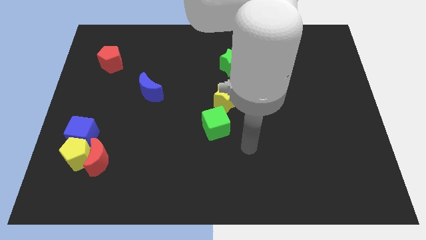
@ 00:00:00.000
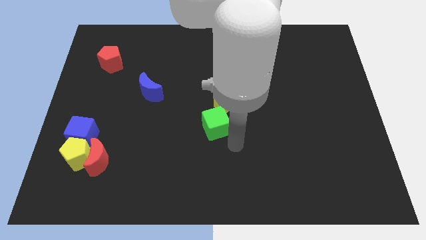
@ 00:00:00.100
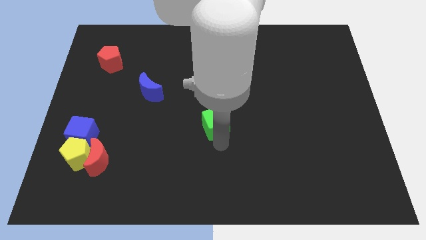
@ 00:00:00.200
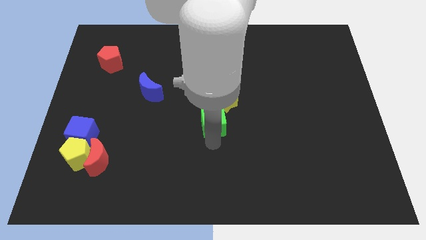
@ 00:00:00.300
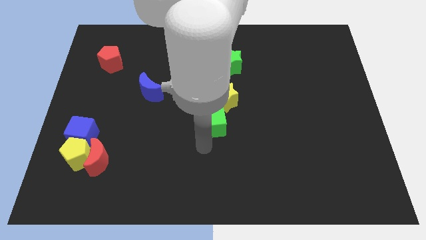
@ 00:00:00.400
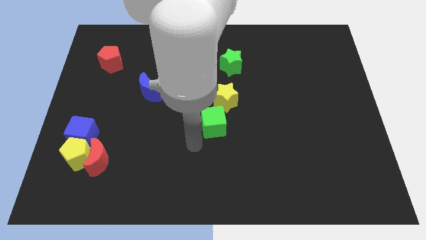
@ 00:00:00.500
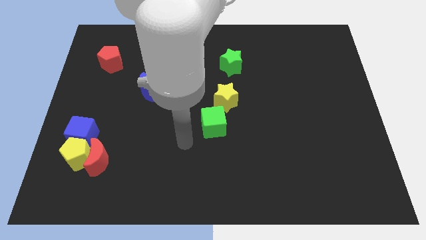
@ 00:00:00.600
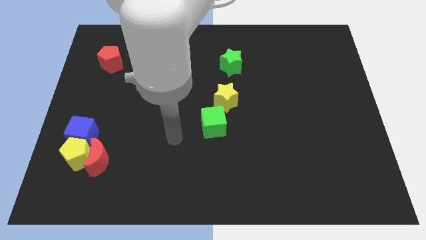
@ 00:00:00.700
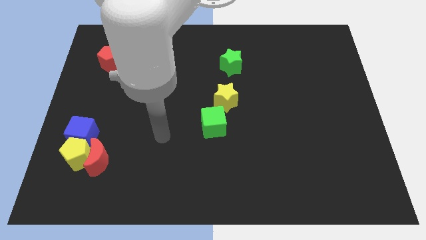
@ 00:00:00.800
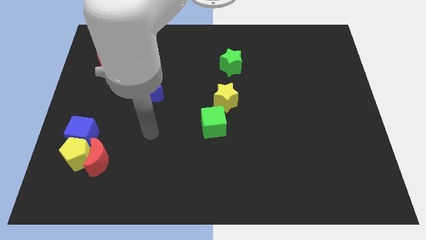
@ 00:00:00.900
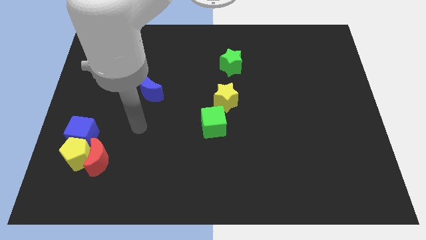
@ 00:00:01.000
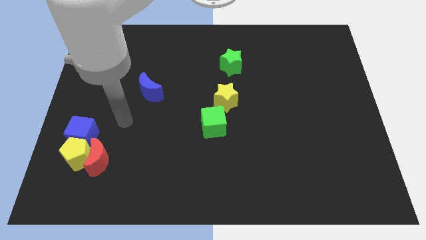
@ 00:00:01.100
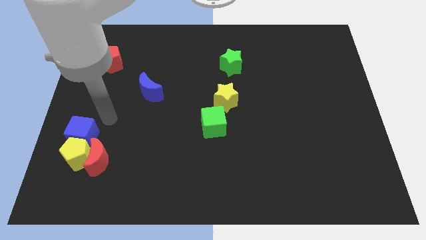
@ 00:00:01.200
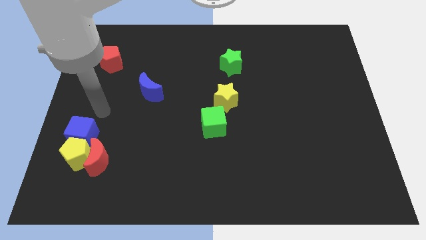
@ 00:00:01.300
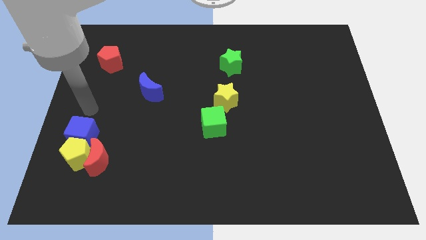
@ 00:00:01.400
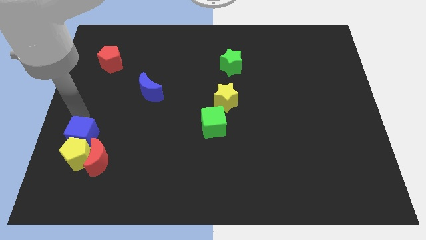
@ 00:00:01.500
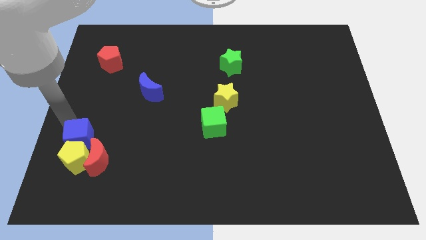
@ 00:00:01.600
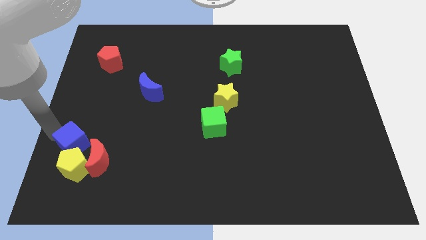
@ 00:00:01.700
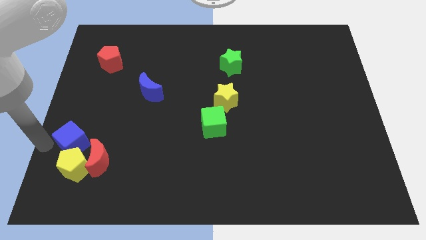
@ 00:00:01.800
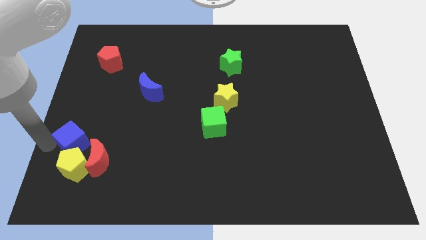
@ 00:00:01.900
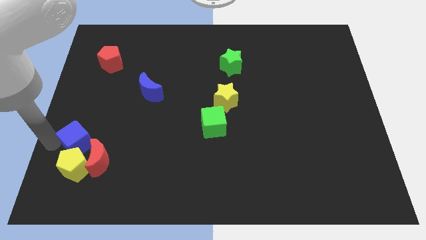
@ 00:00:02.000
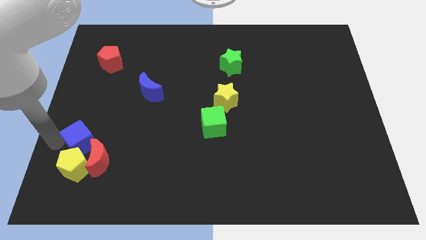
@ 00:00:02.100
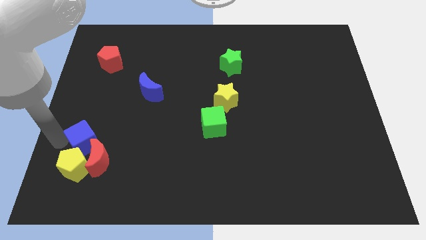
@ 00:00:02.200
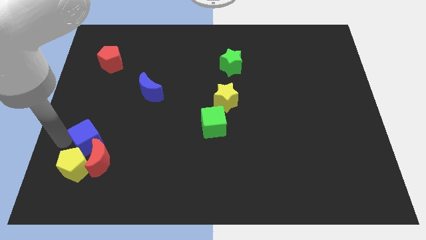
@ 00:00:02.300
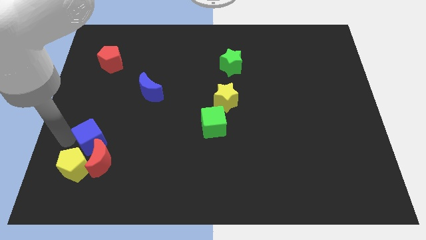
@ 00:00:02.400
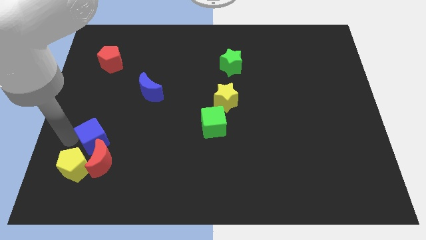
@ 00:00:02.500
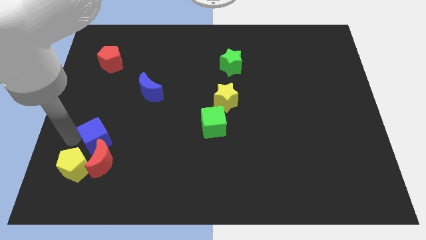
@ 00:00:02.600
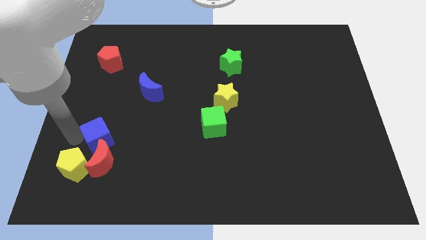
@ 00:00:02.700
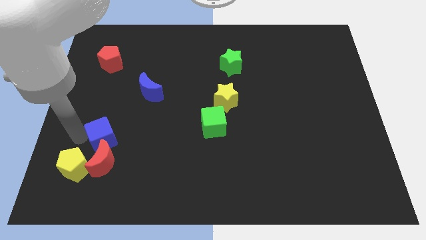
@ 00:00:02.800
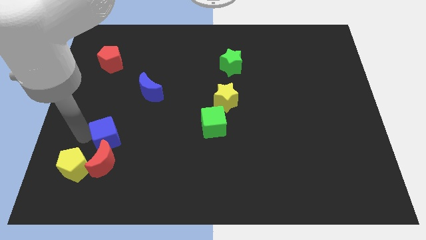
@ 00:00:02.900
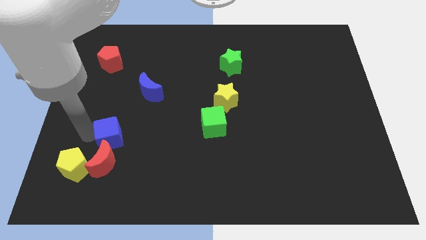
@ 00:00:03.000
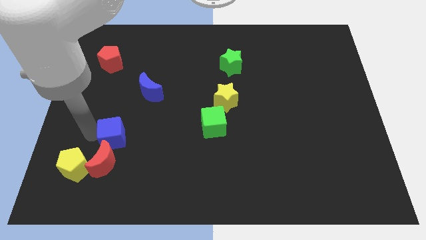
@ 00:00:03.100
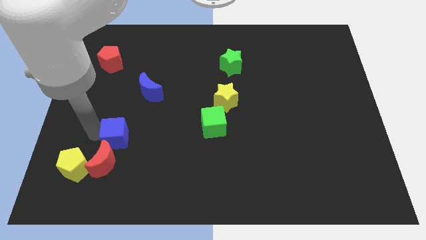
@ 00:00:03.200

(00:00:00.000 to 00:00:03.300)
slightly slide the blue cube to the right

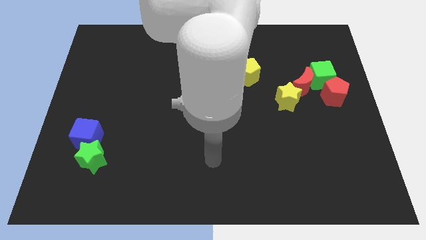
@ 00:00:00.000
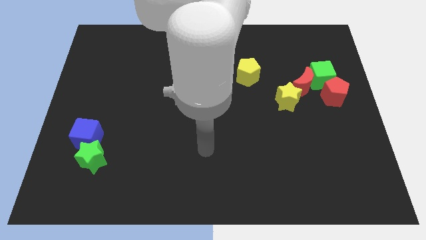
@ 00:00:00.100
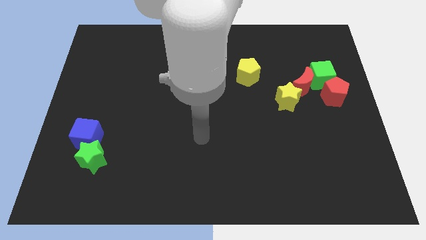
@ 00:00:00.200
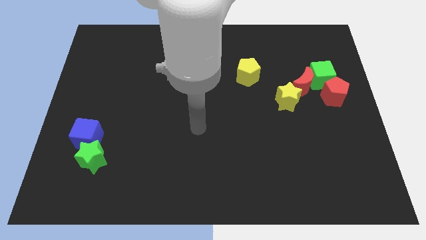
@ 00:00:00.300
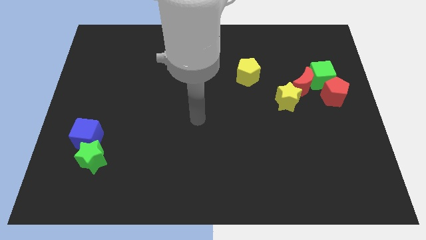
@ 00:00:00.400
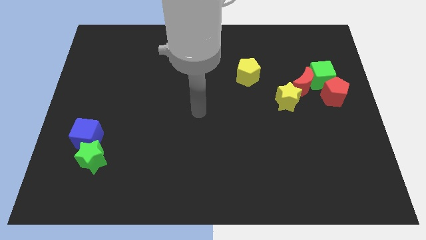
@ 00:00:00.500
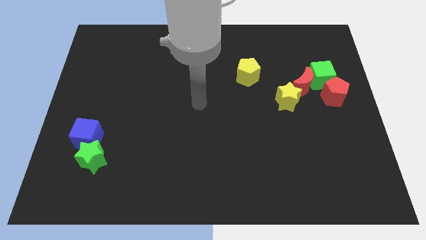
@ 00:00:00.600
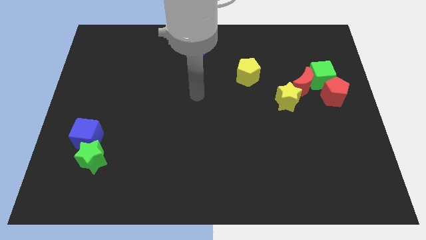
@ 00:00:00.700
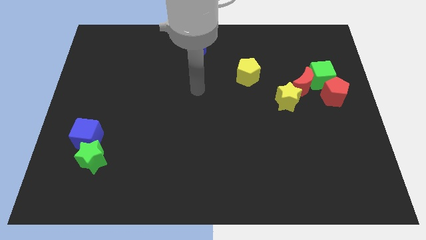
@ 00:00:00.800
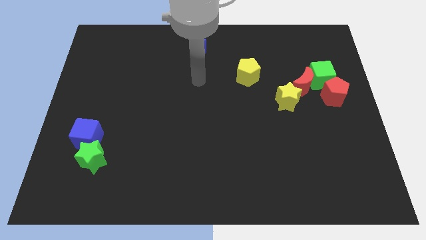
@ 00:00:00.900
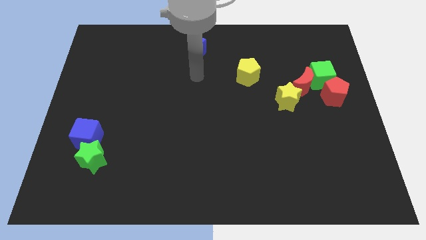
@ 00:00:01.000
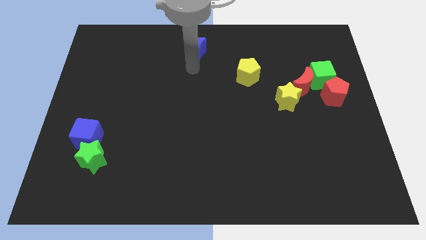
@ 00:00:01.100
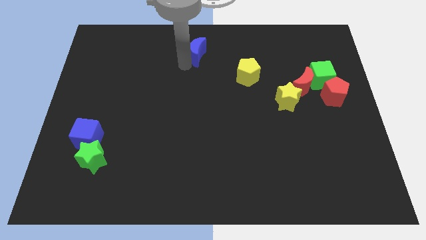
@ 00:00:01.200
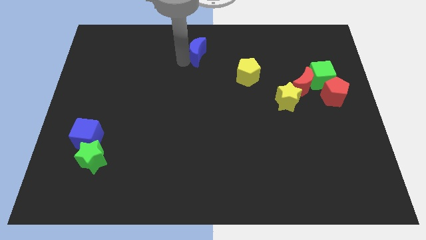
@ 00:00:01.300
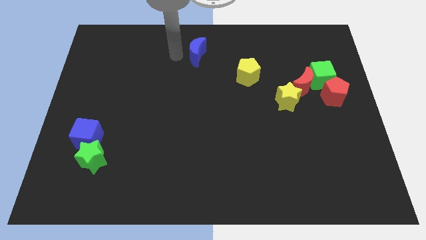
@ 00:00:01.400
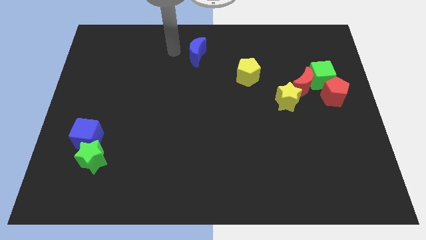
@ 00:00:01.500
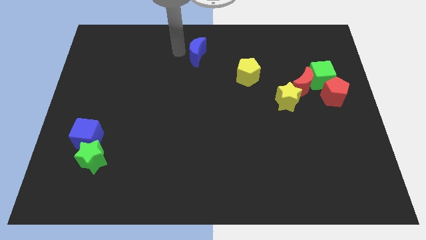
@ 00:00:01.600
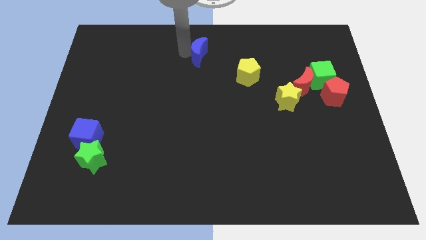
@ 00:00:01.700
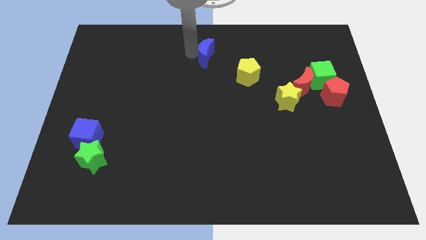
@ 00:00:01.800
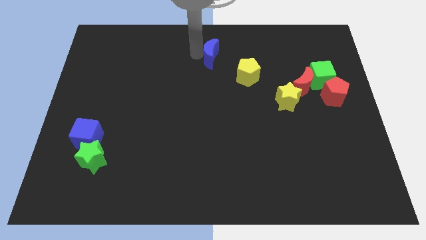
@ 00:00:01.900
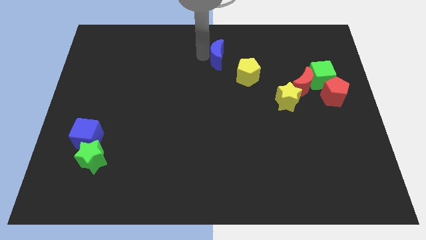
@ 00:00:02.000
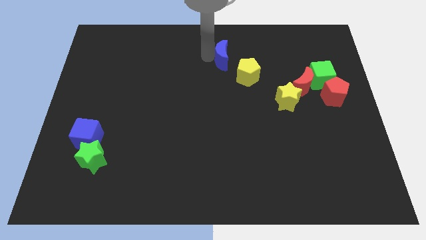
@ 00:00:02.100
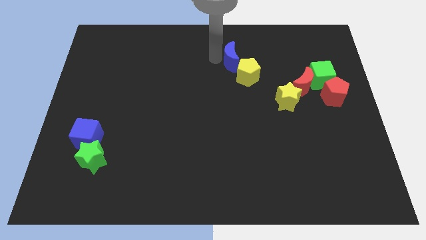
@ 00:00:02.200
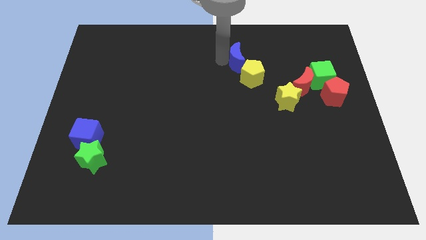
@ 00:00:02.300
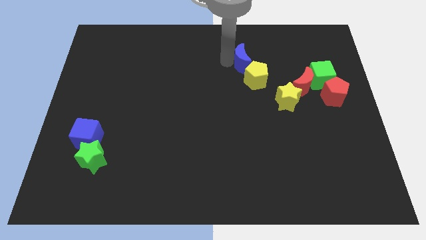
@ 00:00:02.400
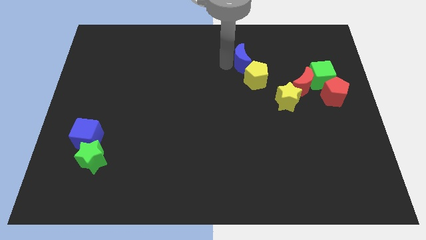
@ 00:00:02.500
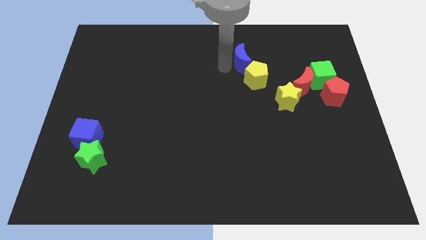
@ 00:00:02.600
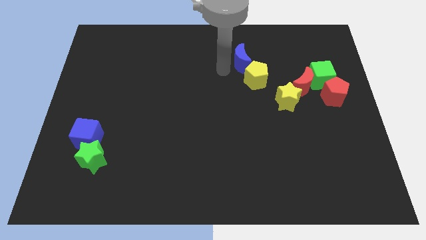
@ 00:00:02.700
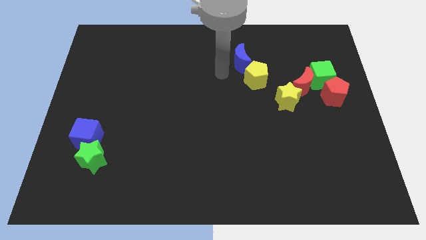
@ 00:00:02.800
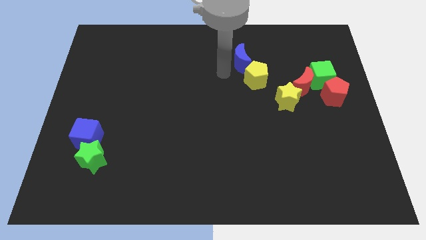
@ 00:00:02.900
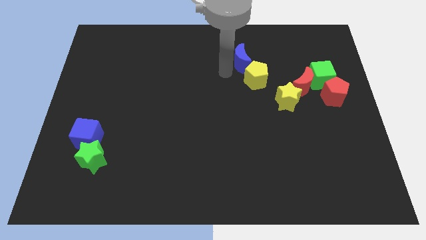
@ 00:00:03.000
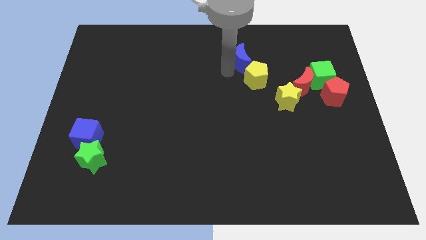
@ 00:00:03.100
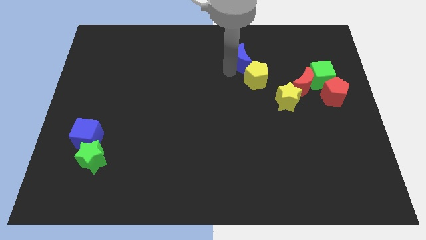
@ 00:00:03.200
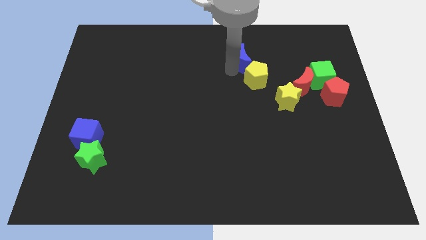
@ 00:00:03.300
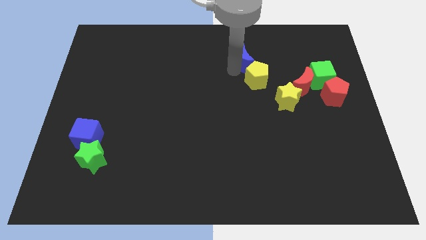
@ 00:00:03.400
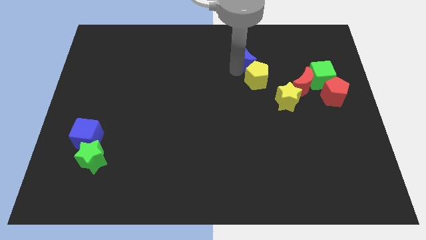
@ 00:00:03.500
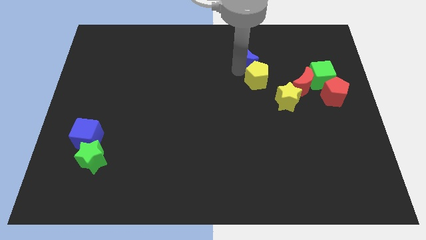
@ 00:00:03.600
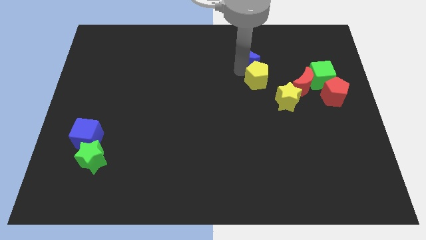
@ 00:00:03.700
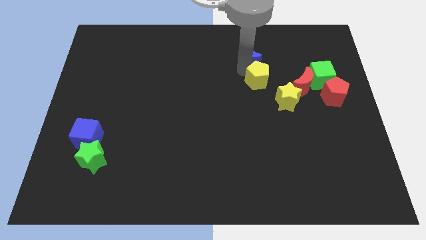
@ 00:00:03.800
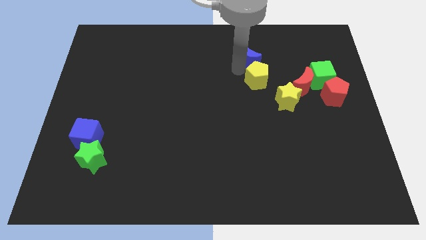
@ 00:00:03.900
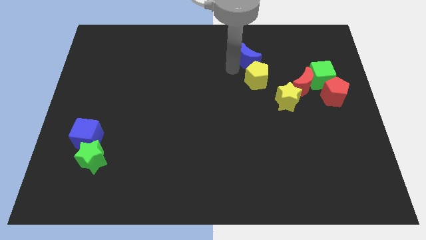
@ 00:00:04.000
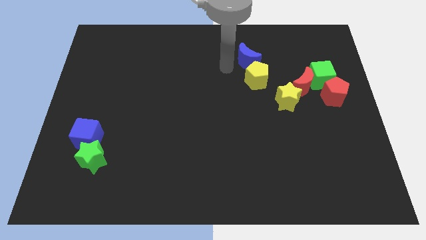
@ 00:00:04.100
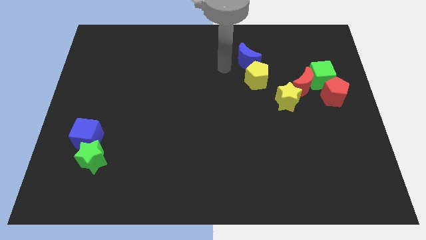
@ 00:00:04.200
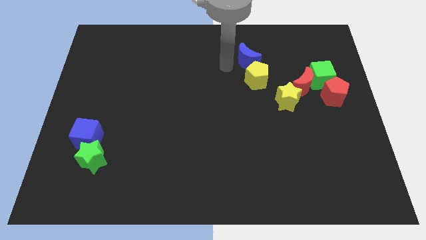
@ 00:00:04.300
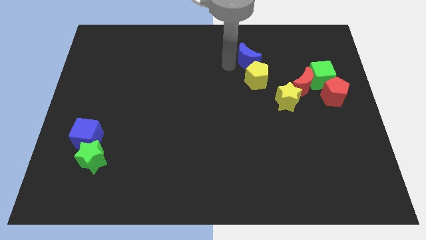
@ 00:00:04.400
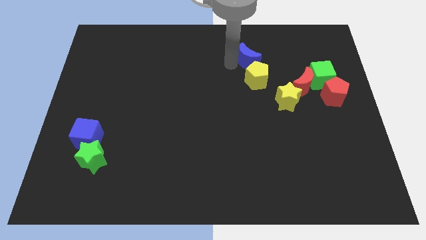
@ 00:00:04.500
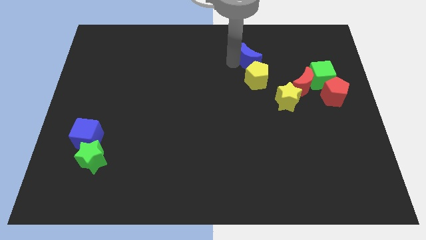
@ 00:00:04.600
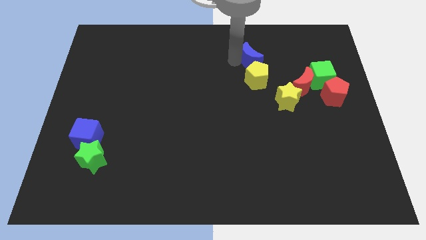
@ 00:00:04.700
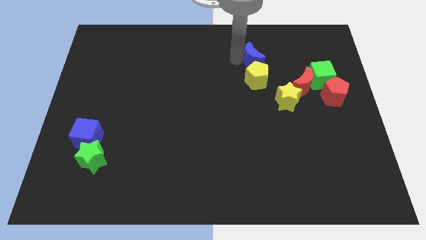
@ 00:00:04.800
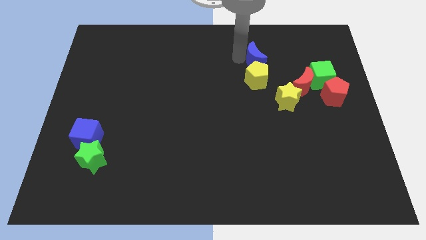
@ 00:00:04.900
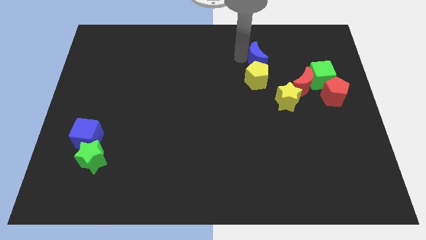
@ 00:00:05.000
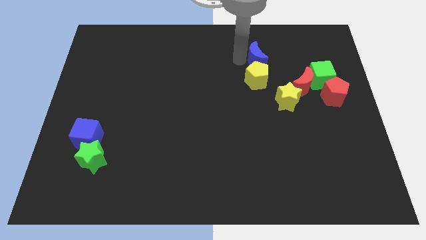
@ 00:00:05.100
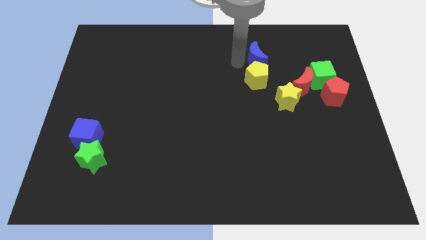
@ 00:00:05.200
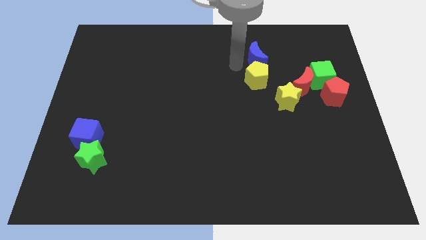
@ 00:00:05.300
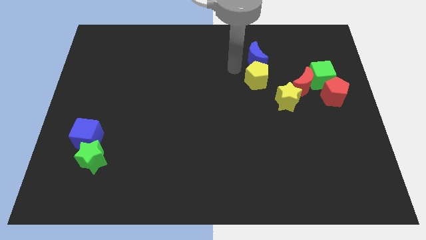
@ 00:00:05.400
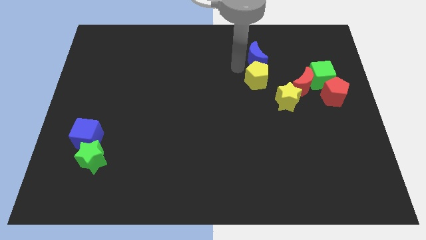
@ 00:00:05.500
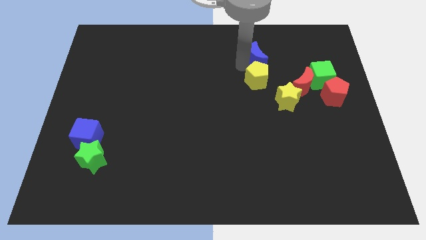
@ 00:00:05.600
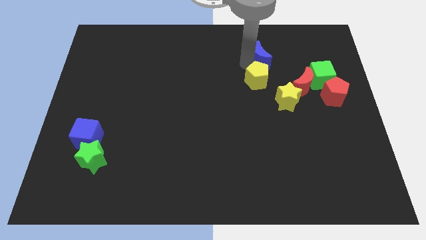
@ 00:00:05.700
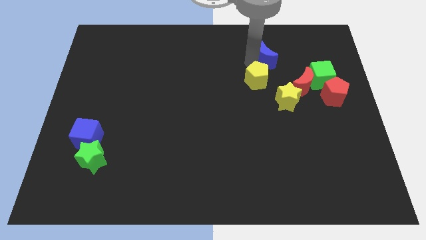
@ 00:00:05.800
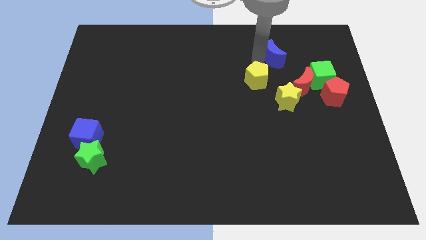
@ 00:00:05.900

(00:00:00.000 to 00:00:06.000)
slide the blue moon right
